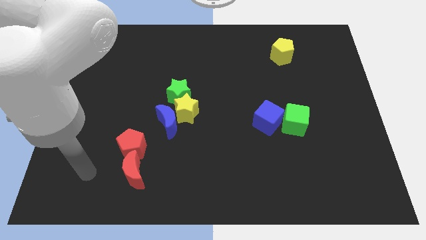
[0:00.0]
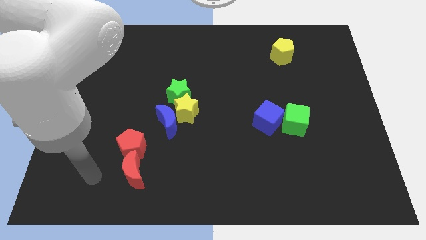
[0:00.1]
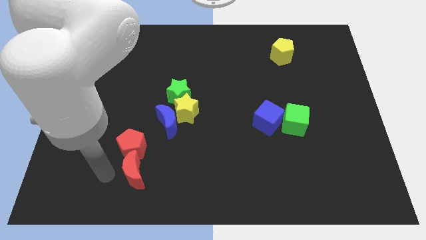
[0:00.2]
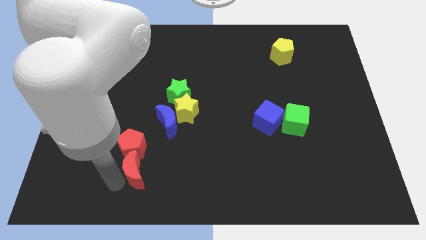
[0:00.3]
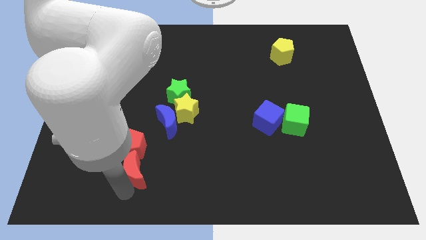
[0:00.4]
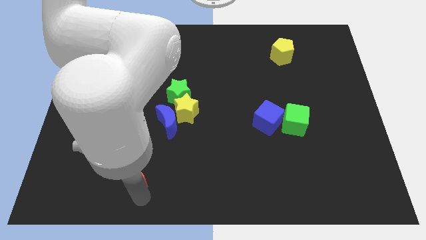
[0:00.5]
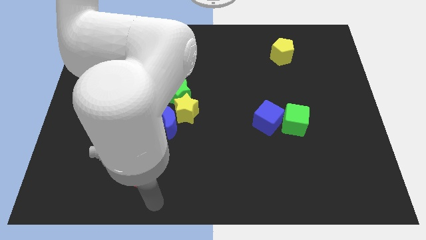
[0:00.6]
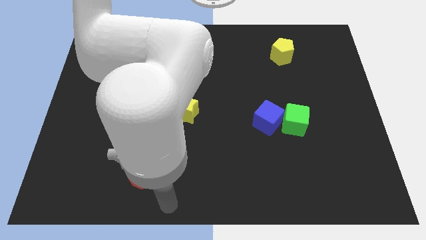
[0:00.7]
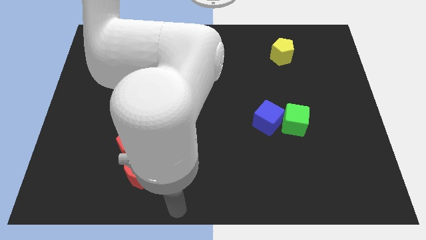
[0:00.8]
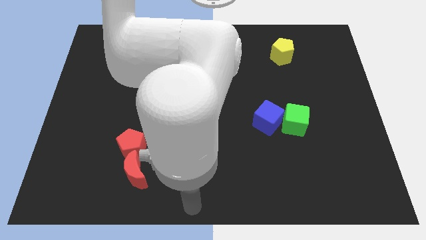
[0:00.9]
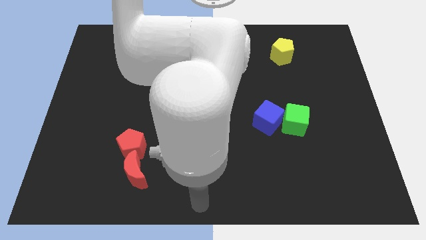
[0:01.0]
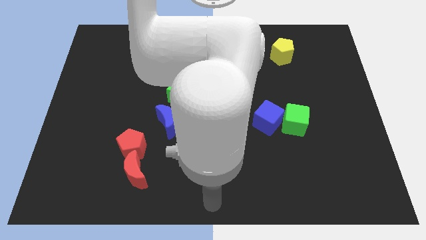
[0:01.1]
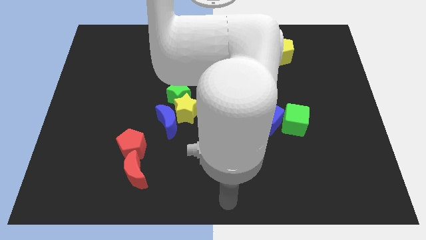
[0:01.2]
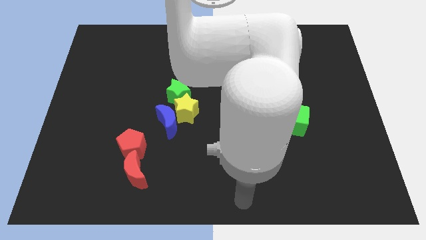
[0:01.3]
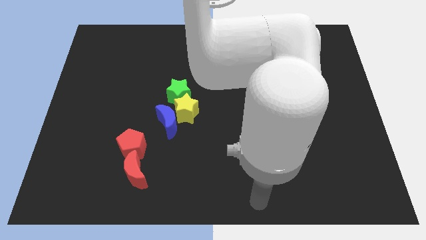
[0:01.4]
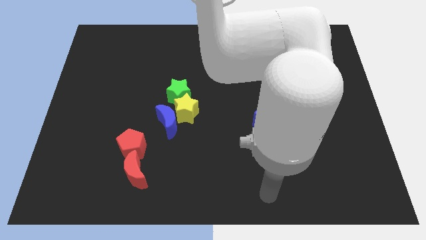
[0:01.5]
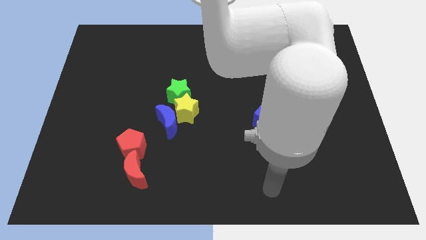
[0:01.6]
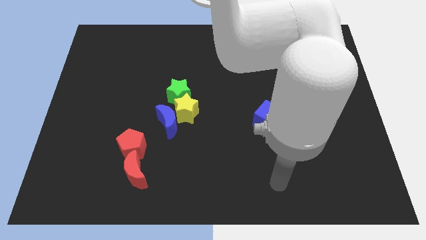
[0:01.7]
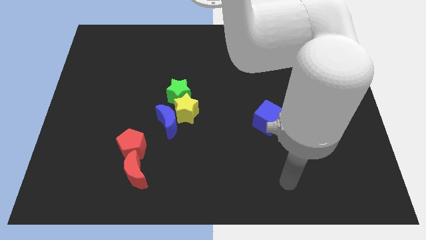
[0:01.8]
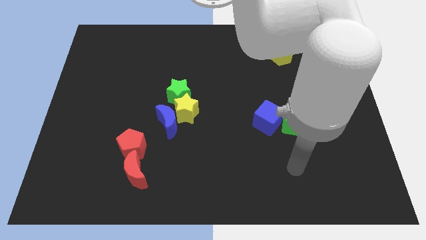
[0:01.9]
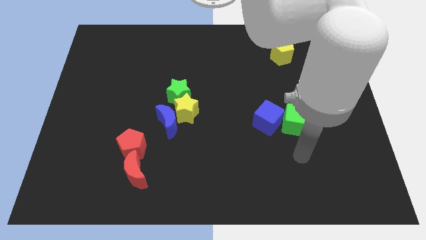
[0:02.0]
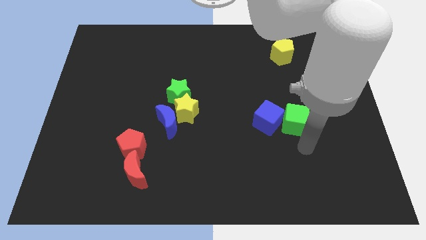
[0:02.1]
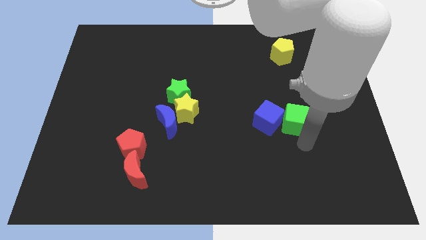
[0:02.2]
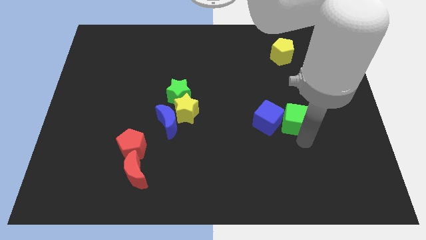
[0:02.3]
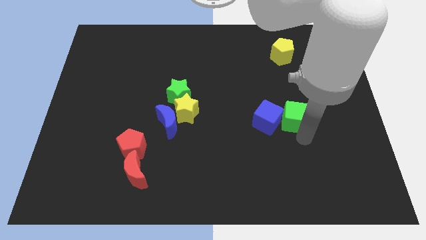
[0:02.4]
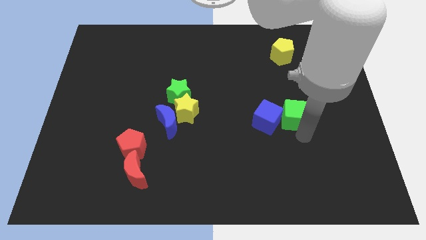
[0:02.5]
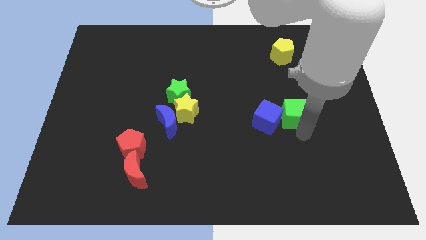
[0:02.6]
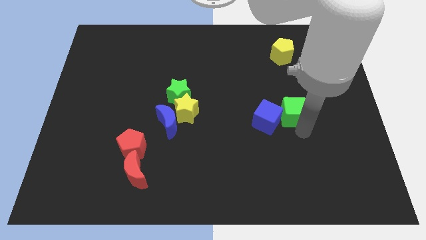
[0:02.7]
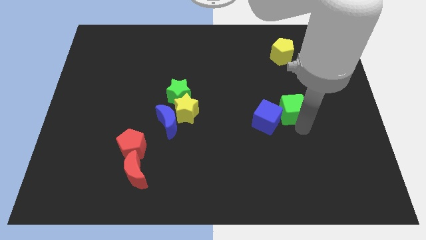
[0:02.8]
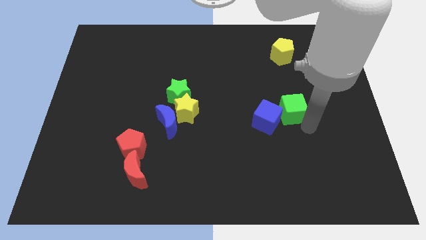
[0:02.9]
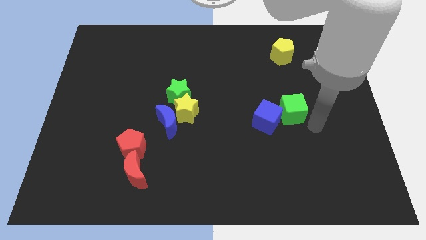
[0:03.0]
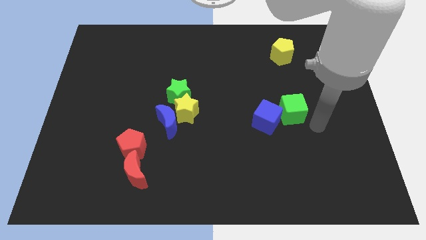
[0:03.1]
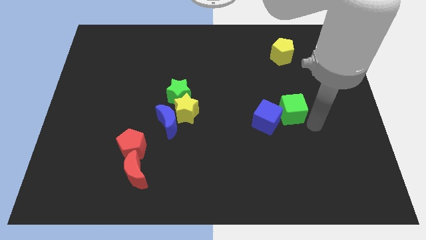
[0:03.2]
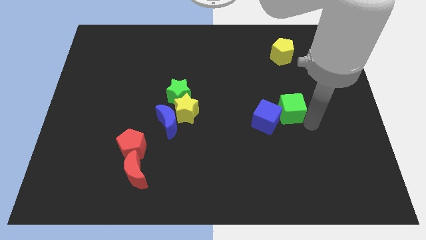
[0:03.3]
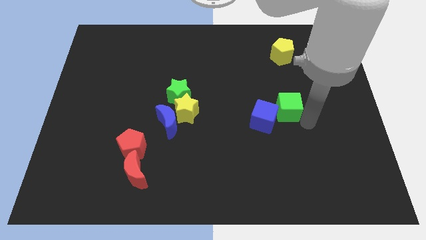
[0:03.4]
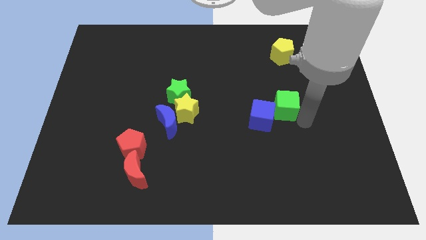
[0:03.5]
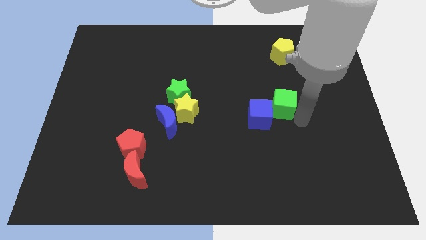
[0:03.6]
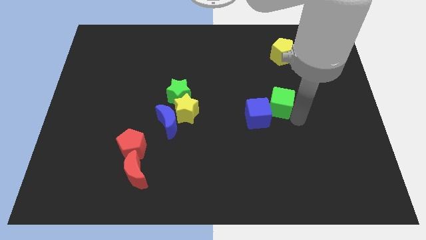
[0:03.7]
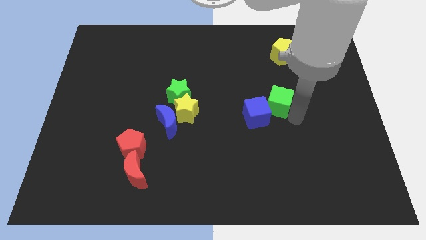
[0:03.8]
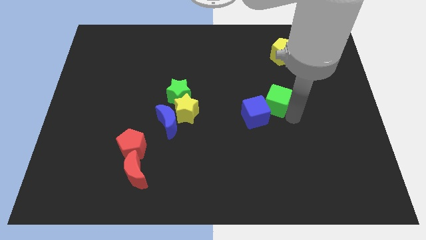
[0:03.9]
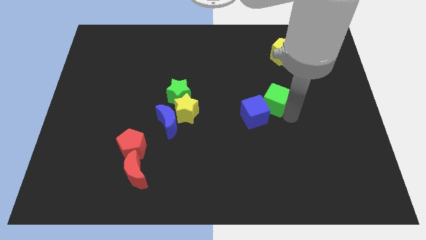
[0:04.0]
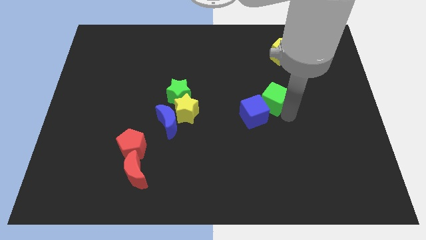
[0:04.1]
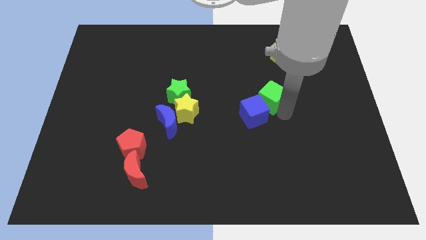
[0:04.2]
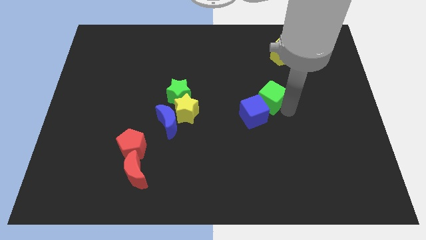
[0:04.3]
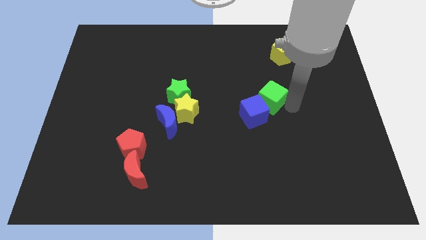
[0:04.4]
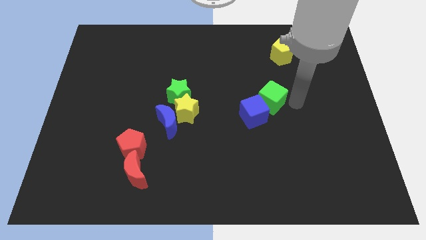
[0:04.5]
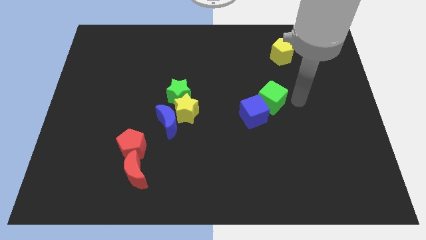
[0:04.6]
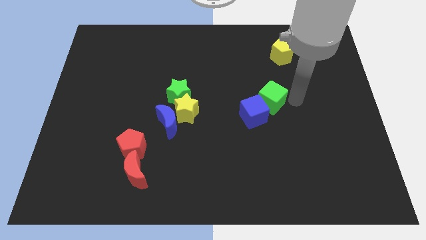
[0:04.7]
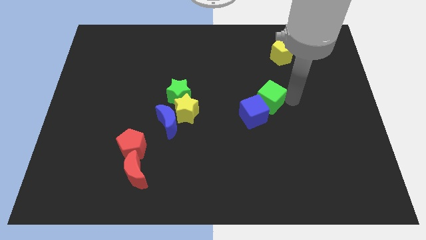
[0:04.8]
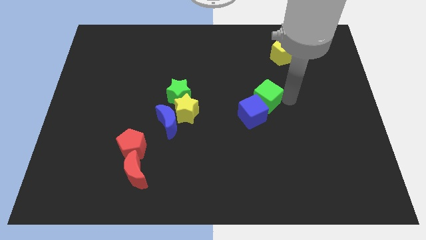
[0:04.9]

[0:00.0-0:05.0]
put the green cube to the center of the board

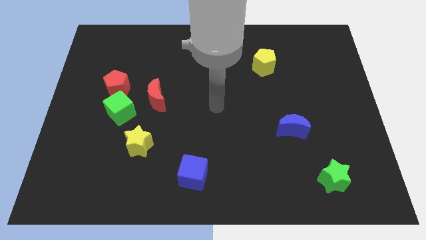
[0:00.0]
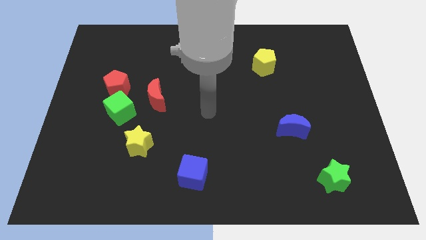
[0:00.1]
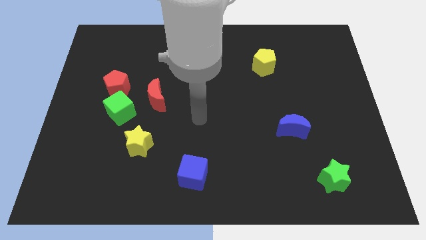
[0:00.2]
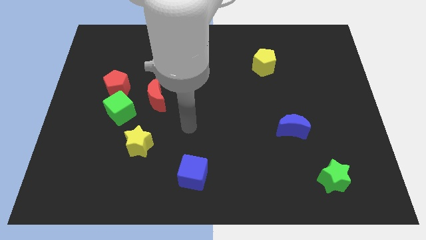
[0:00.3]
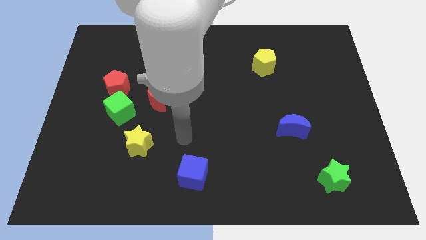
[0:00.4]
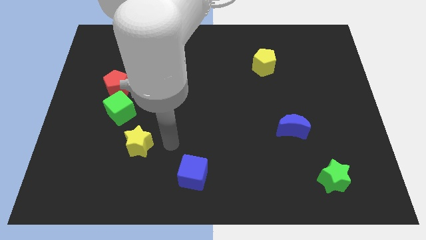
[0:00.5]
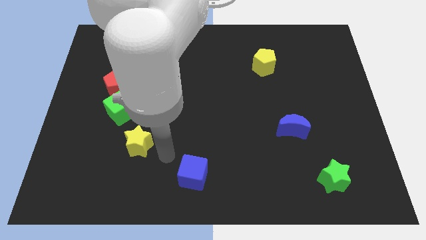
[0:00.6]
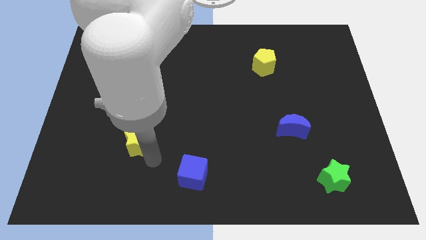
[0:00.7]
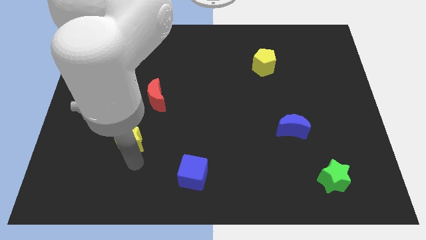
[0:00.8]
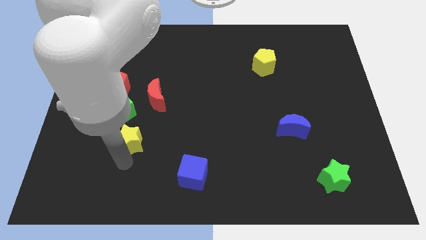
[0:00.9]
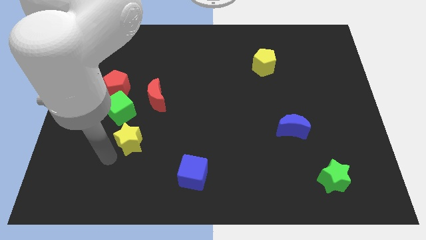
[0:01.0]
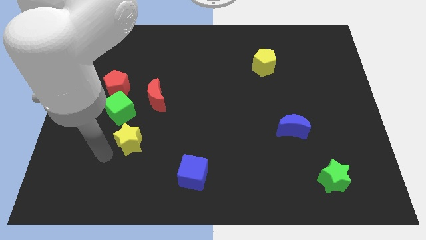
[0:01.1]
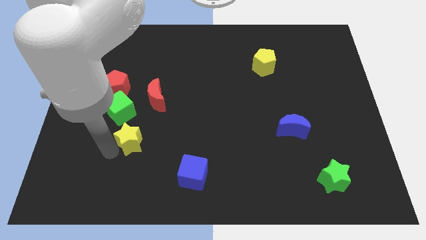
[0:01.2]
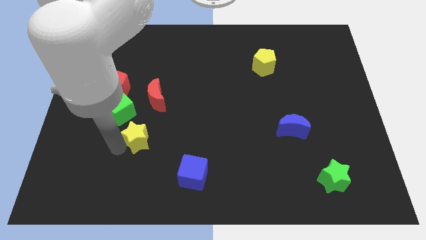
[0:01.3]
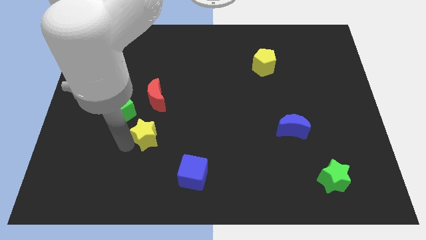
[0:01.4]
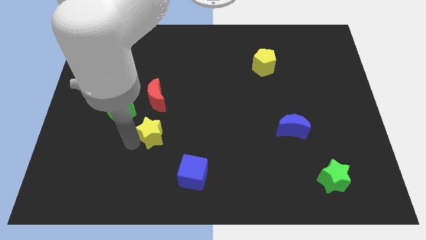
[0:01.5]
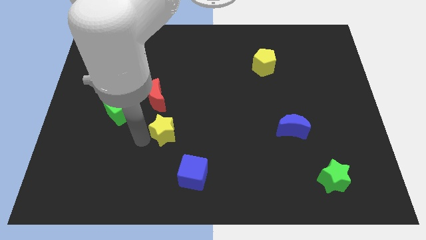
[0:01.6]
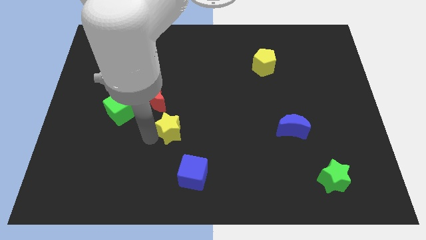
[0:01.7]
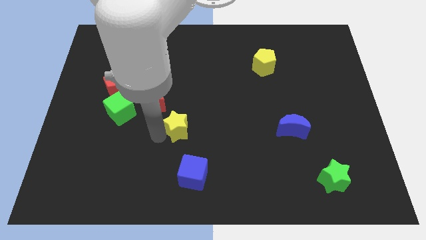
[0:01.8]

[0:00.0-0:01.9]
put the yellow star to the center
